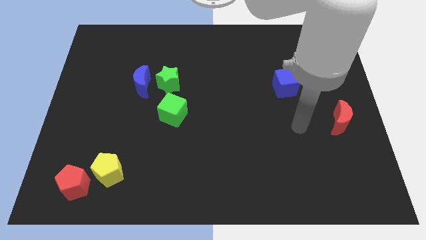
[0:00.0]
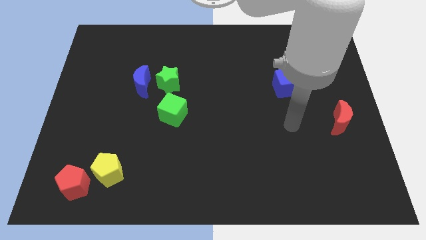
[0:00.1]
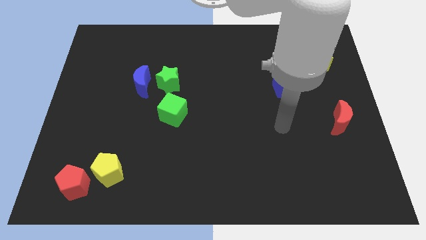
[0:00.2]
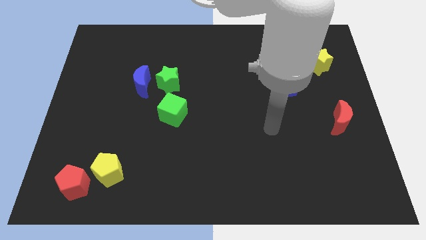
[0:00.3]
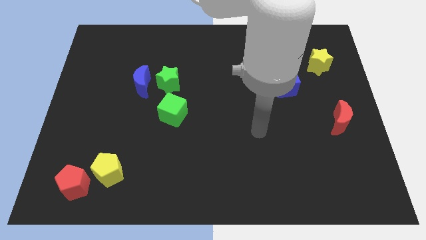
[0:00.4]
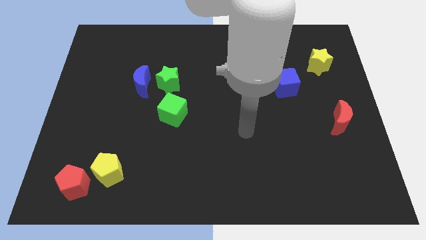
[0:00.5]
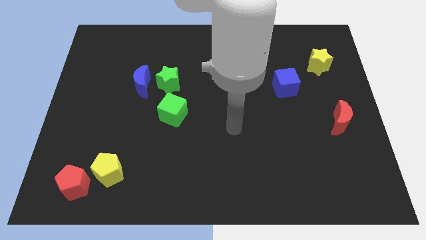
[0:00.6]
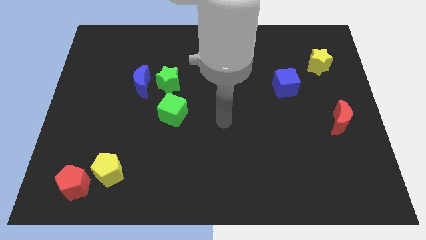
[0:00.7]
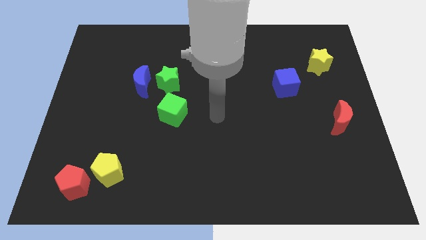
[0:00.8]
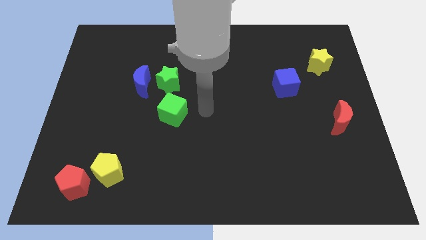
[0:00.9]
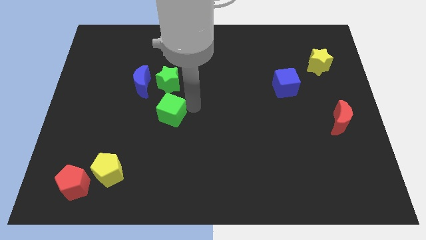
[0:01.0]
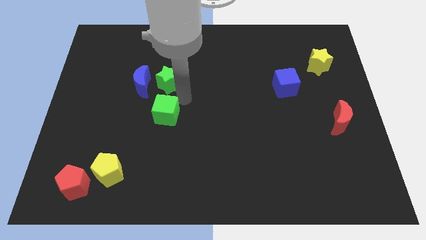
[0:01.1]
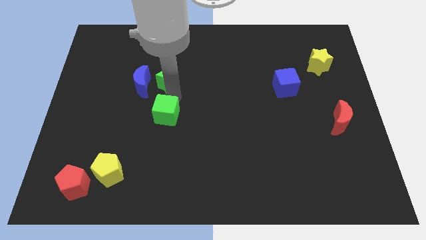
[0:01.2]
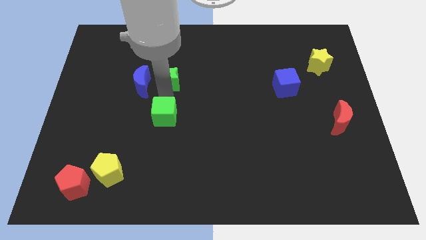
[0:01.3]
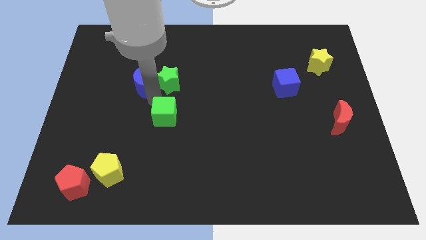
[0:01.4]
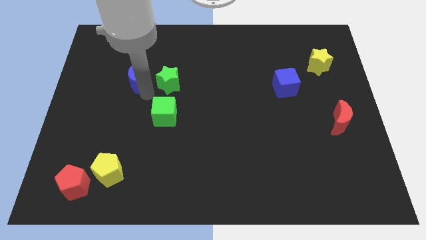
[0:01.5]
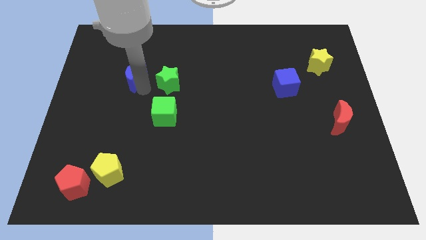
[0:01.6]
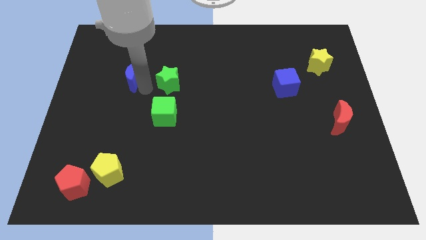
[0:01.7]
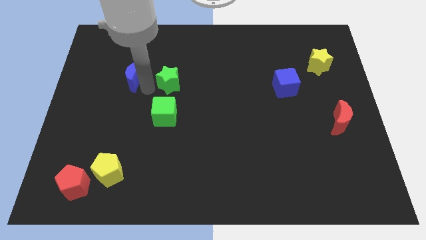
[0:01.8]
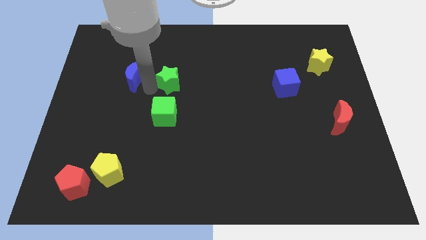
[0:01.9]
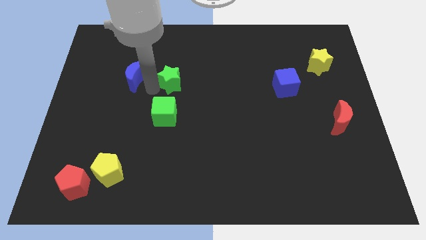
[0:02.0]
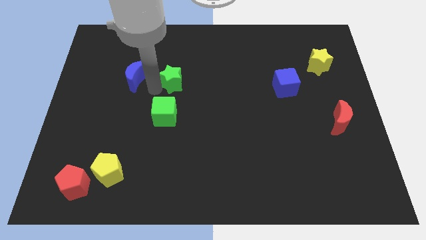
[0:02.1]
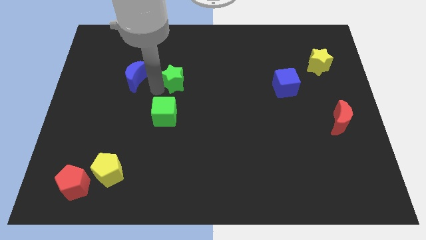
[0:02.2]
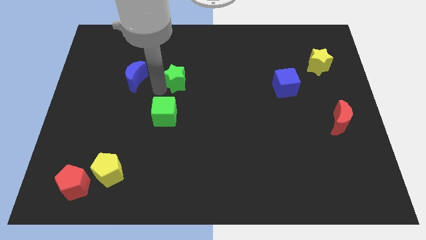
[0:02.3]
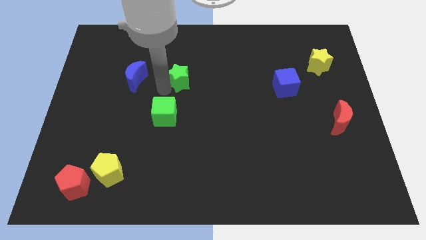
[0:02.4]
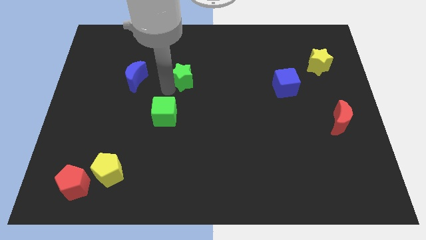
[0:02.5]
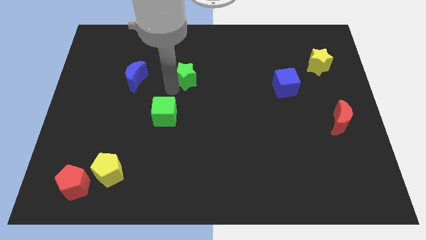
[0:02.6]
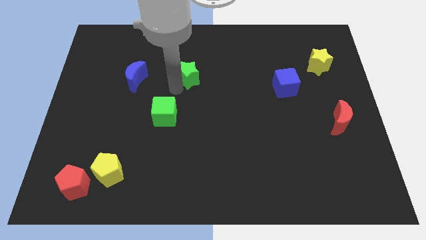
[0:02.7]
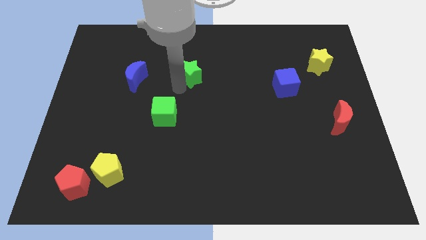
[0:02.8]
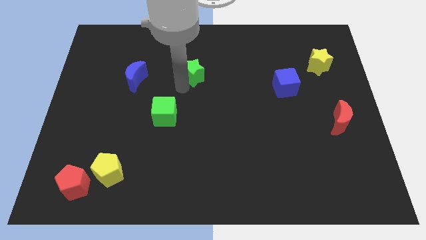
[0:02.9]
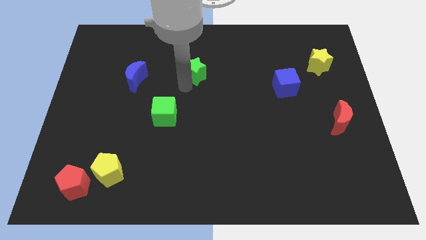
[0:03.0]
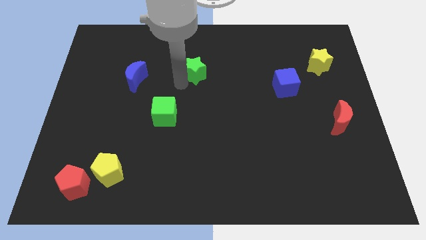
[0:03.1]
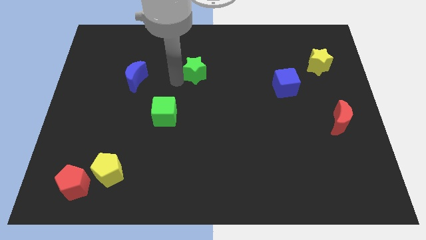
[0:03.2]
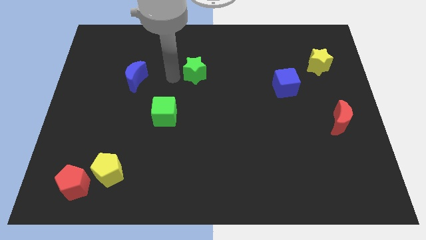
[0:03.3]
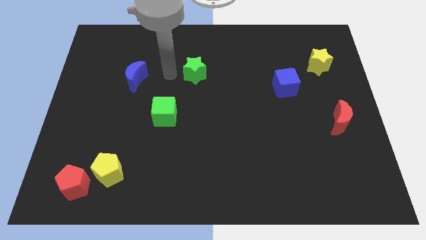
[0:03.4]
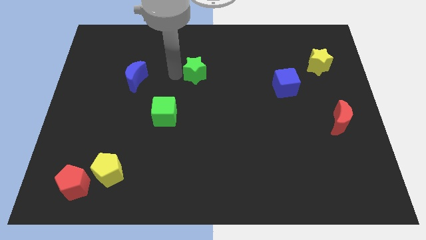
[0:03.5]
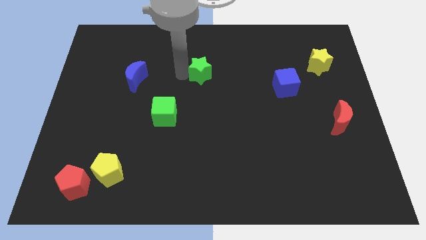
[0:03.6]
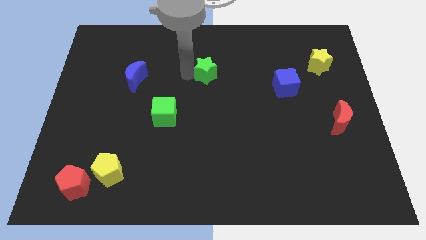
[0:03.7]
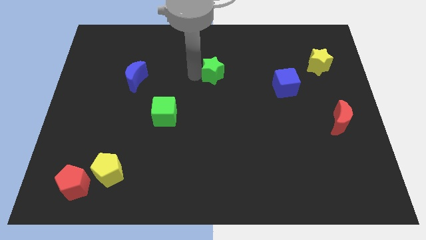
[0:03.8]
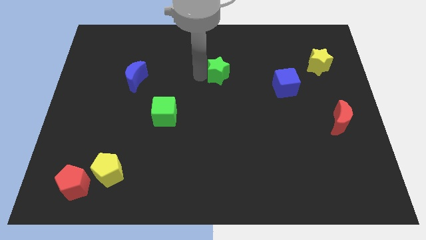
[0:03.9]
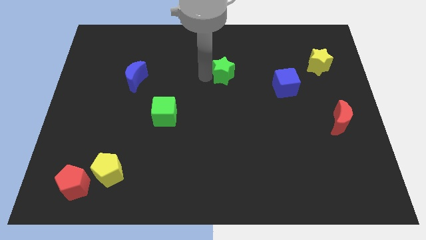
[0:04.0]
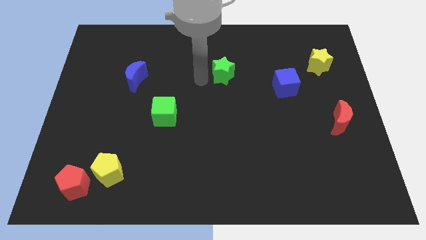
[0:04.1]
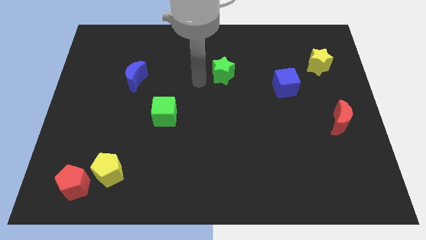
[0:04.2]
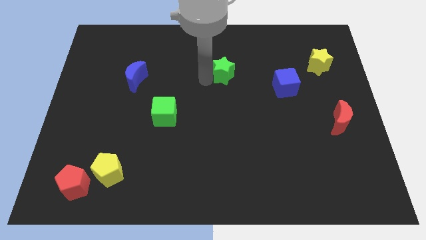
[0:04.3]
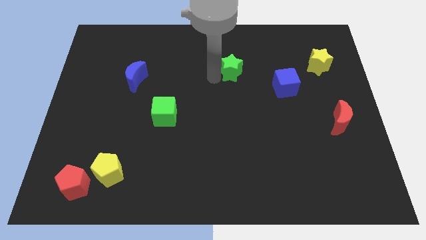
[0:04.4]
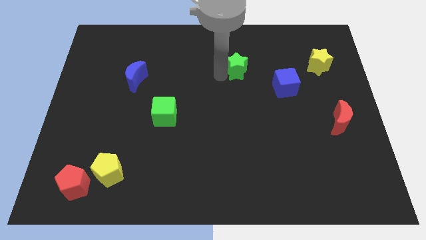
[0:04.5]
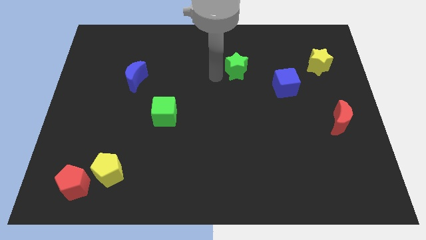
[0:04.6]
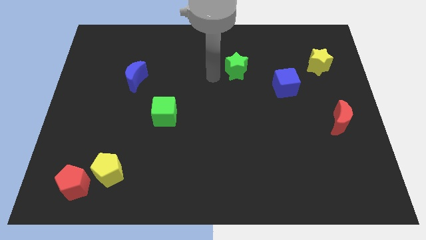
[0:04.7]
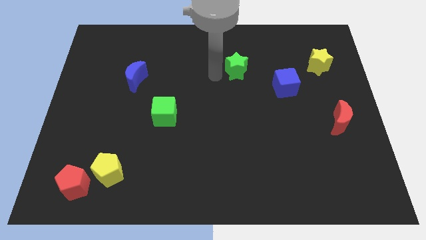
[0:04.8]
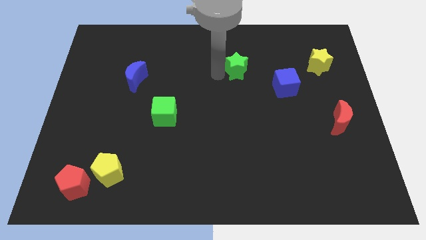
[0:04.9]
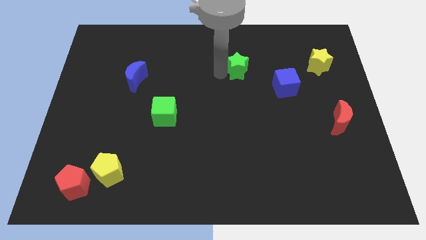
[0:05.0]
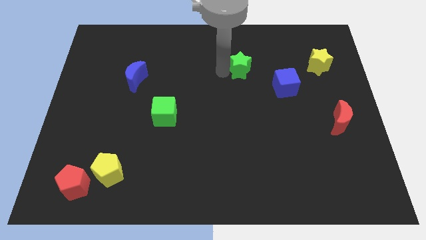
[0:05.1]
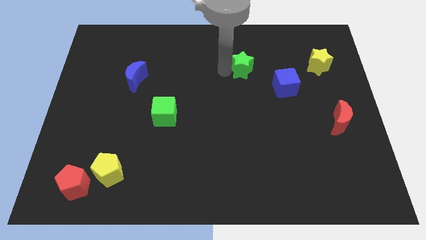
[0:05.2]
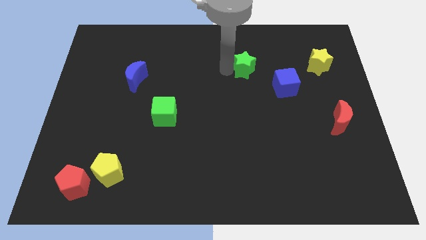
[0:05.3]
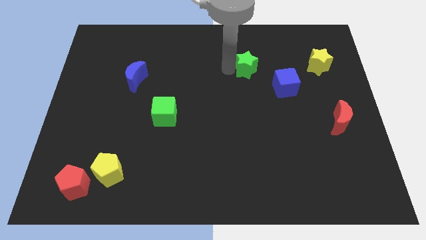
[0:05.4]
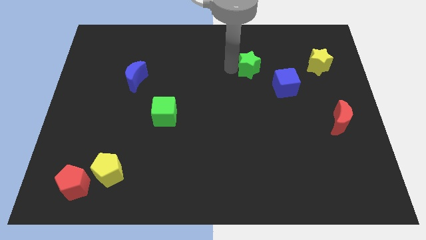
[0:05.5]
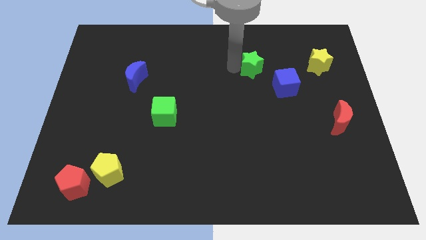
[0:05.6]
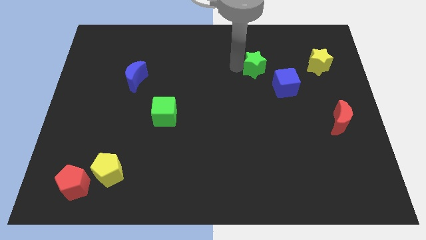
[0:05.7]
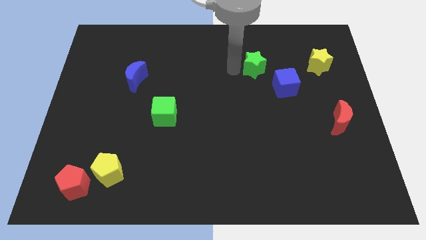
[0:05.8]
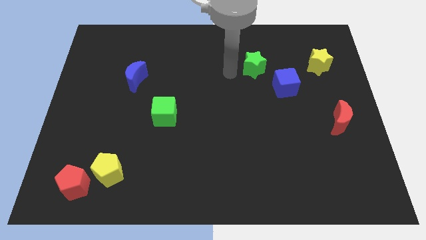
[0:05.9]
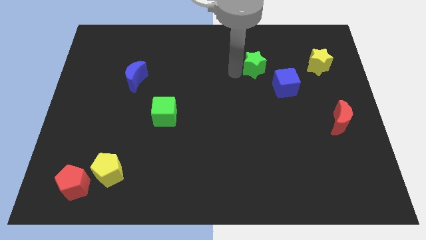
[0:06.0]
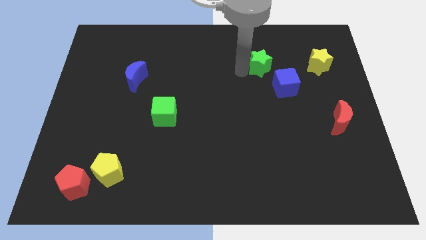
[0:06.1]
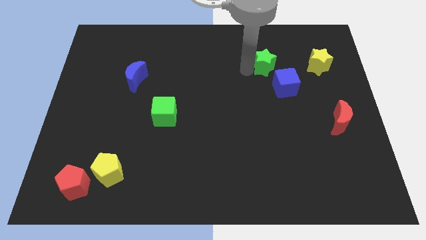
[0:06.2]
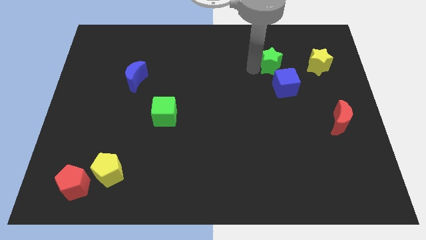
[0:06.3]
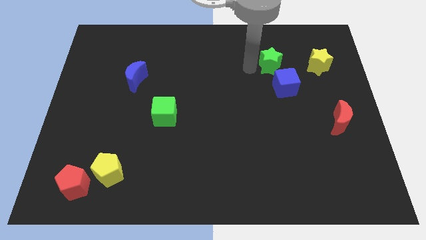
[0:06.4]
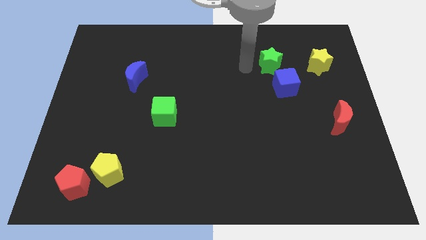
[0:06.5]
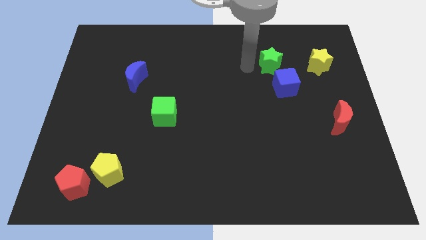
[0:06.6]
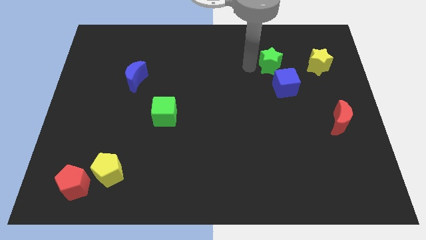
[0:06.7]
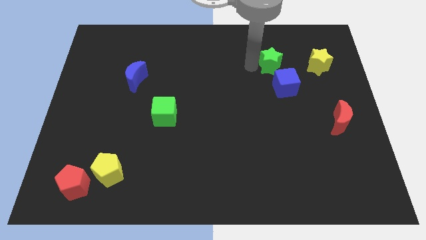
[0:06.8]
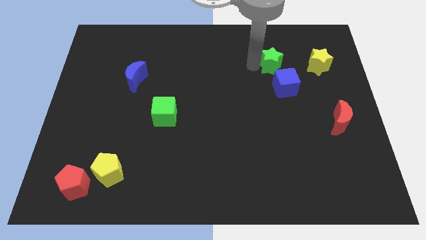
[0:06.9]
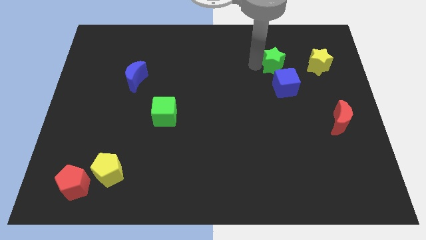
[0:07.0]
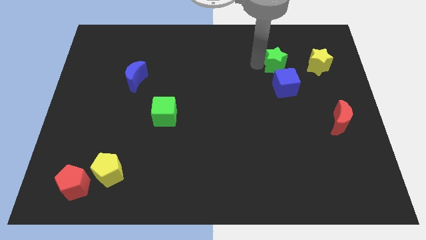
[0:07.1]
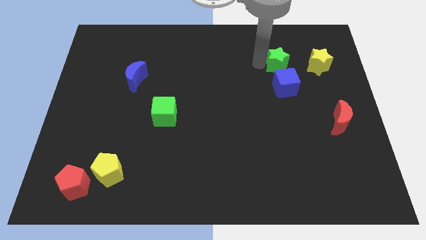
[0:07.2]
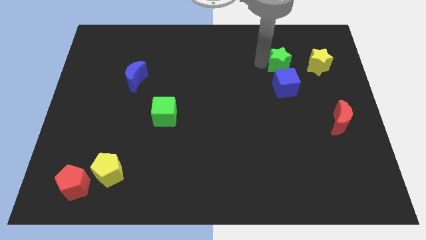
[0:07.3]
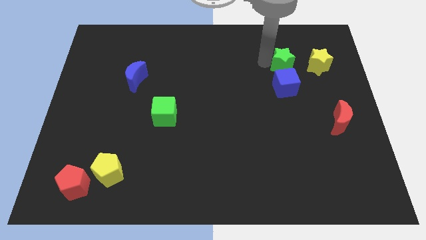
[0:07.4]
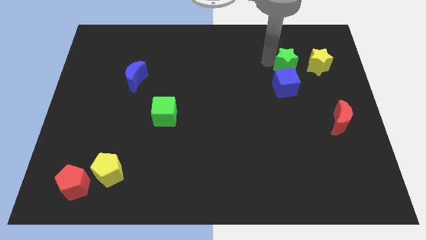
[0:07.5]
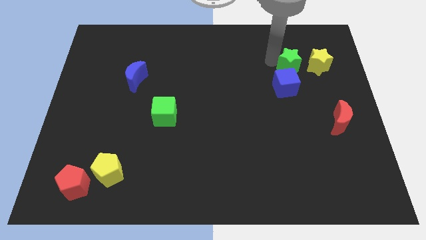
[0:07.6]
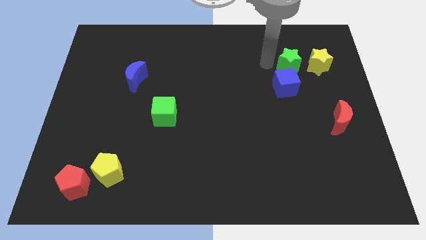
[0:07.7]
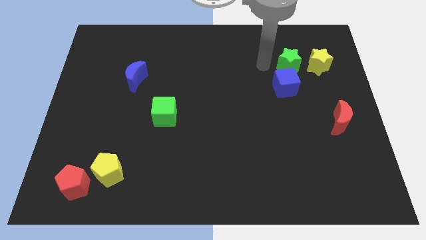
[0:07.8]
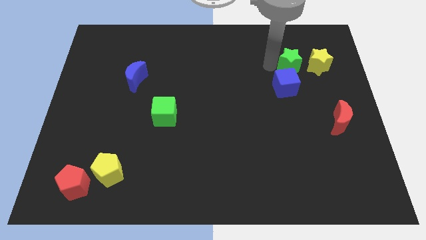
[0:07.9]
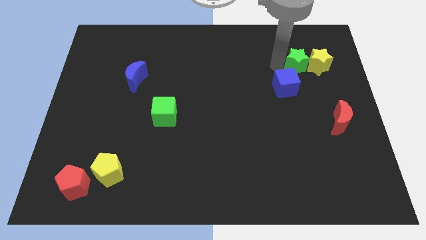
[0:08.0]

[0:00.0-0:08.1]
move the green star close to the yellow star
